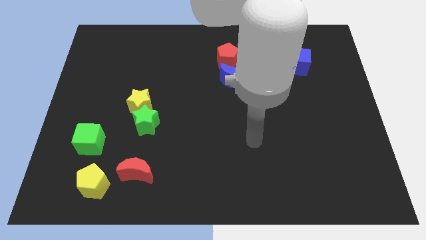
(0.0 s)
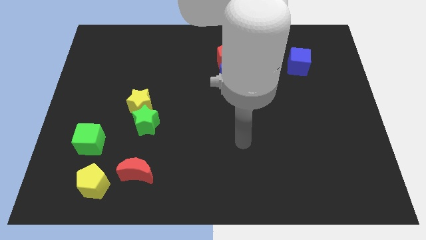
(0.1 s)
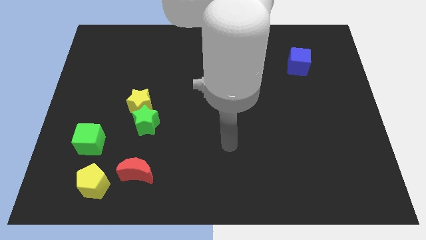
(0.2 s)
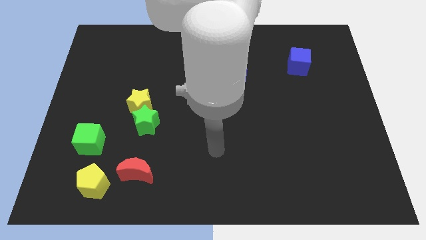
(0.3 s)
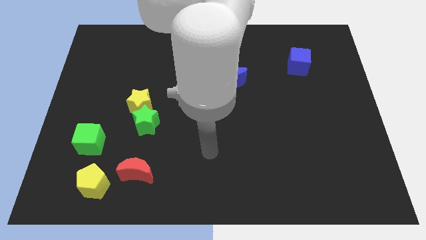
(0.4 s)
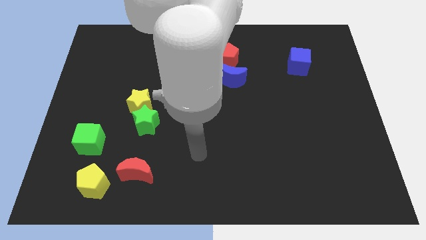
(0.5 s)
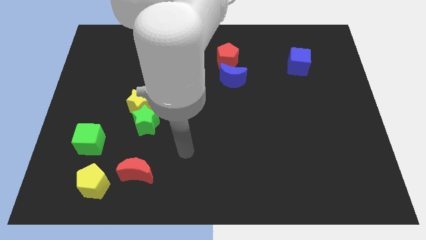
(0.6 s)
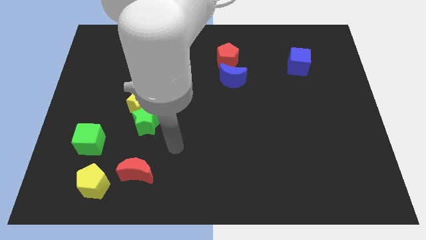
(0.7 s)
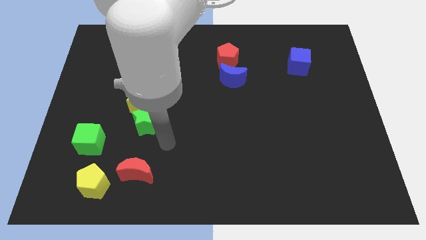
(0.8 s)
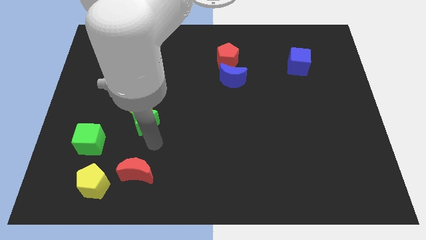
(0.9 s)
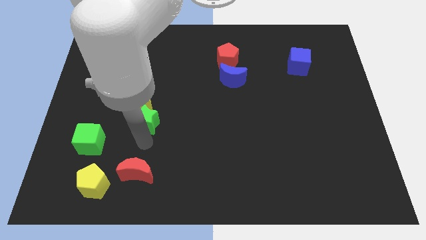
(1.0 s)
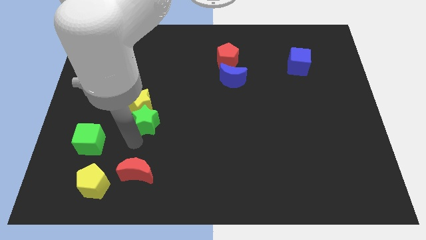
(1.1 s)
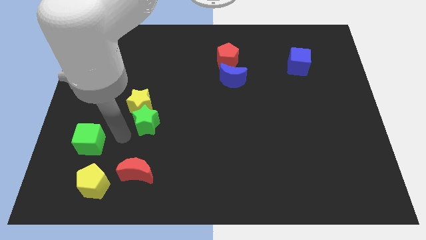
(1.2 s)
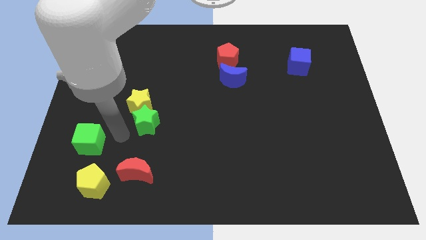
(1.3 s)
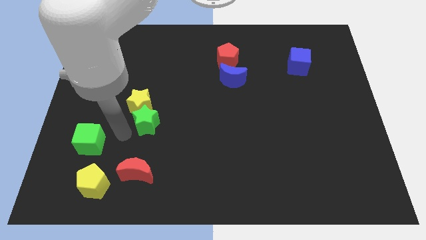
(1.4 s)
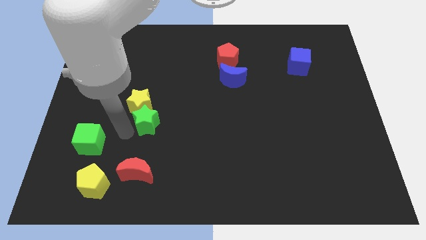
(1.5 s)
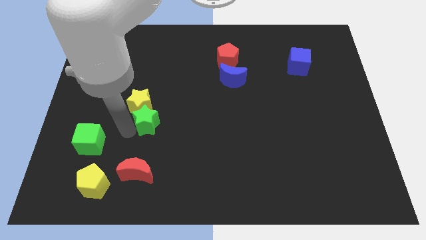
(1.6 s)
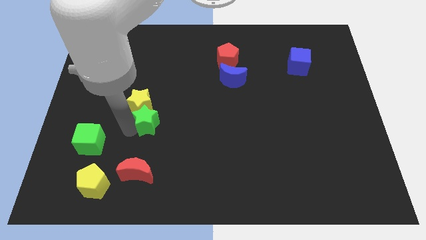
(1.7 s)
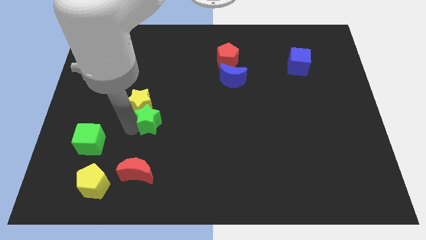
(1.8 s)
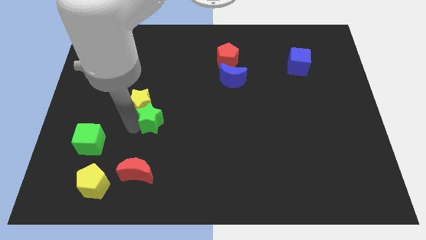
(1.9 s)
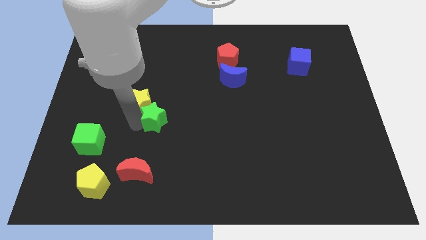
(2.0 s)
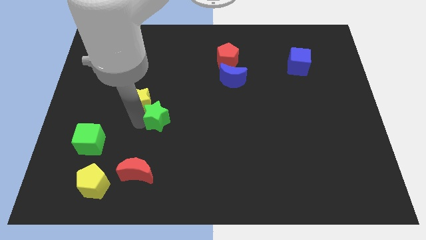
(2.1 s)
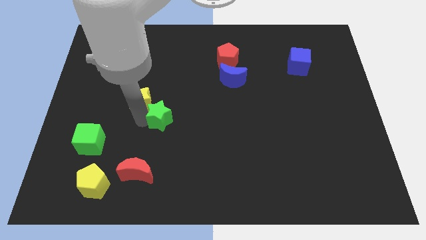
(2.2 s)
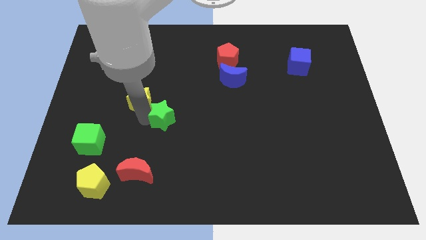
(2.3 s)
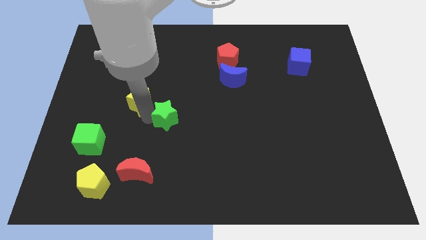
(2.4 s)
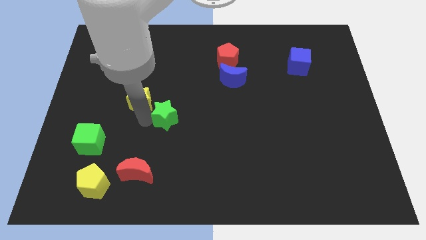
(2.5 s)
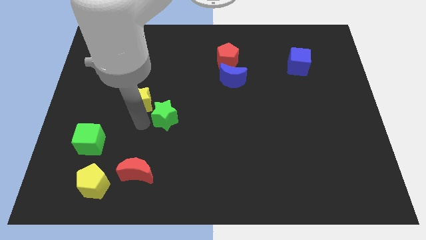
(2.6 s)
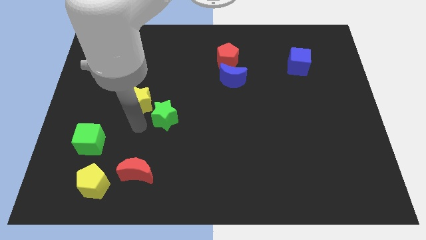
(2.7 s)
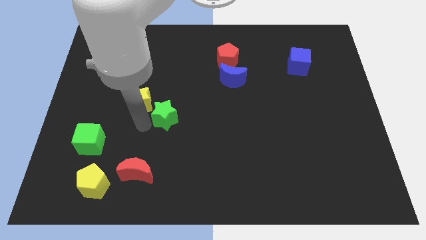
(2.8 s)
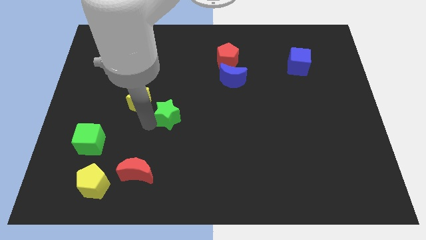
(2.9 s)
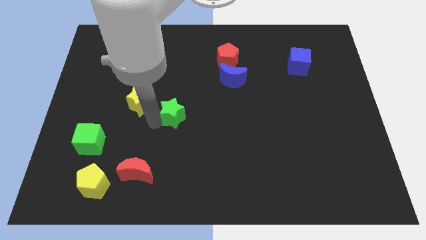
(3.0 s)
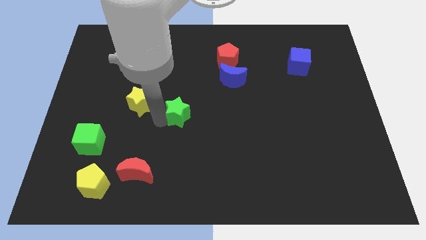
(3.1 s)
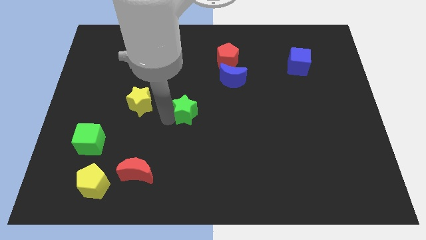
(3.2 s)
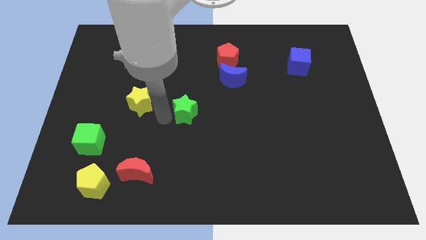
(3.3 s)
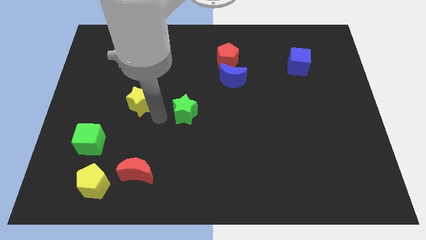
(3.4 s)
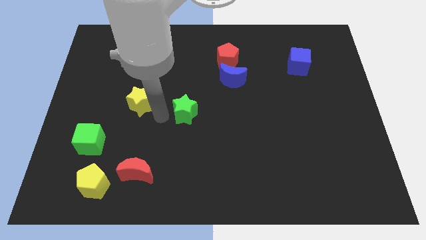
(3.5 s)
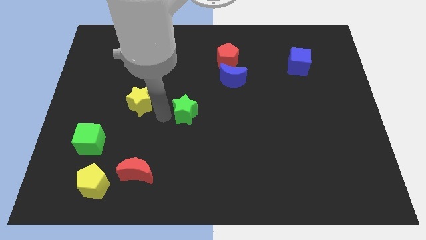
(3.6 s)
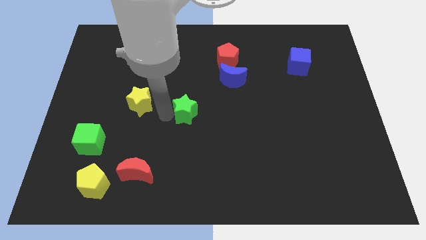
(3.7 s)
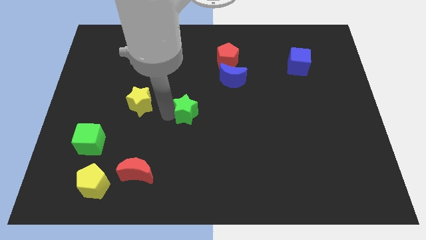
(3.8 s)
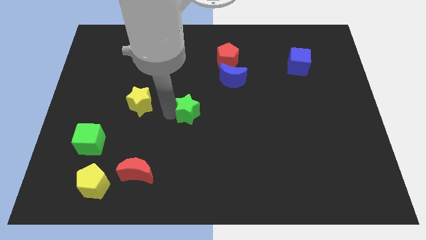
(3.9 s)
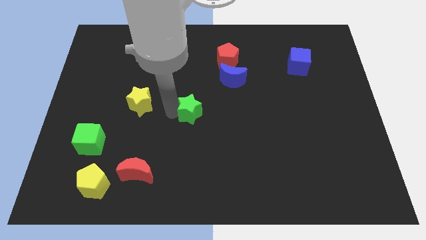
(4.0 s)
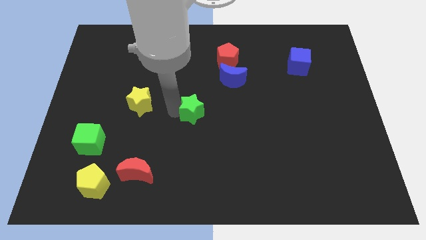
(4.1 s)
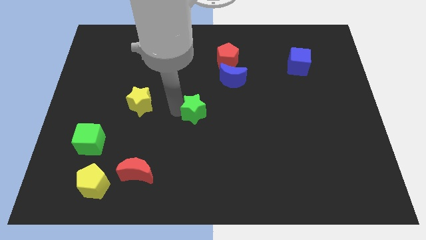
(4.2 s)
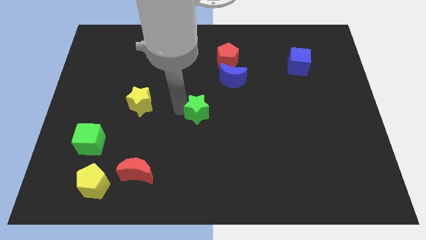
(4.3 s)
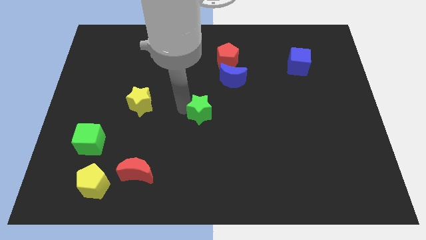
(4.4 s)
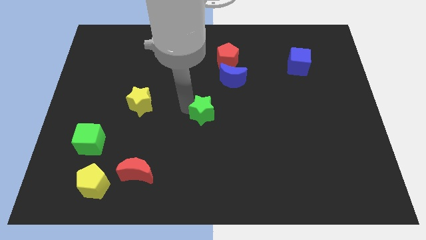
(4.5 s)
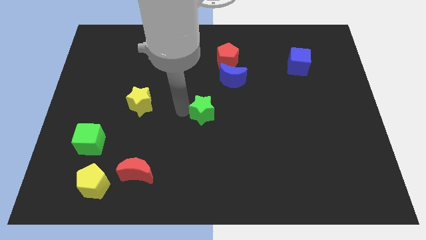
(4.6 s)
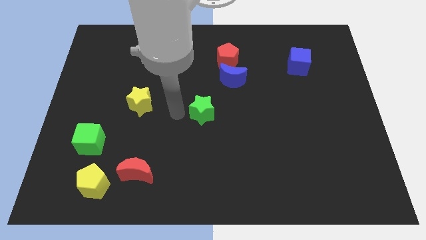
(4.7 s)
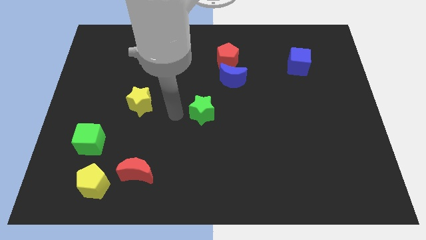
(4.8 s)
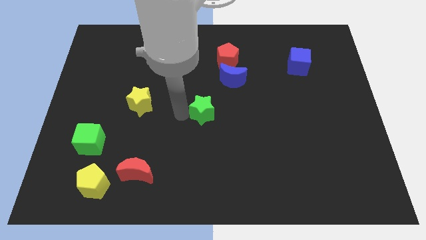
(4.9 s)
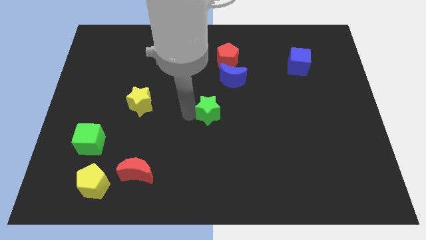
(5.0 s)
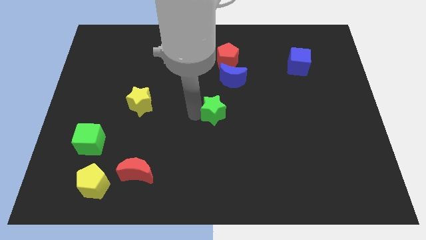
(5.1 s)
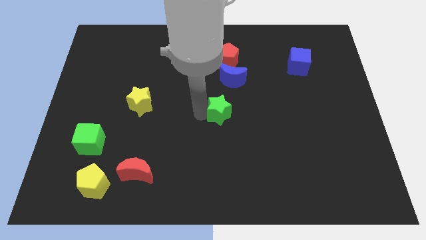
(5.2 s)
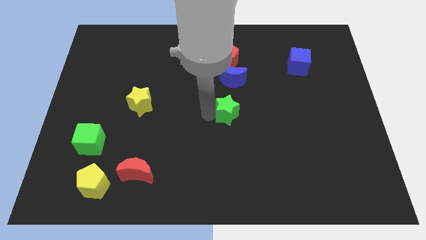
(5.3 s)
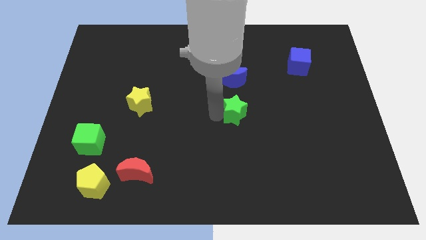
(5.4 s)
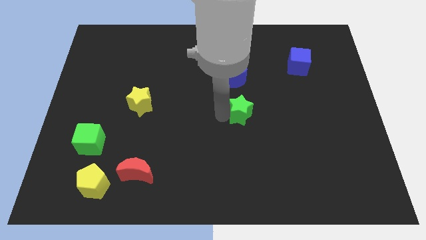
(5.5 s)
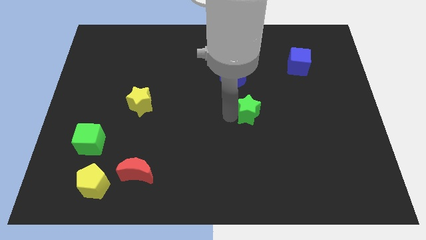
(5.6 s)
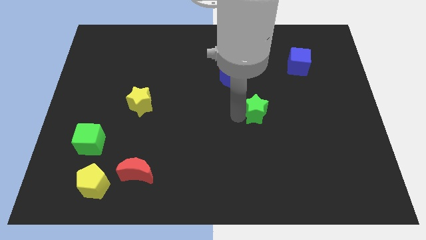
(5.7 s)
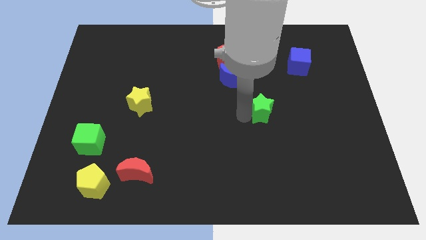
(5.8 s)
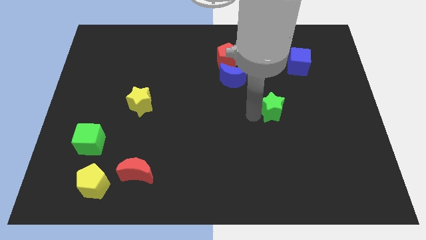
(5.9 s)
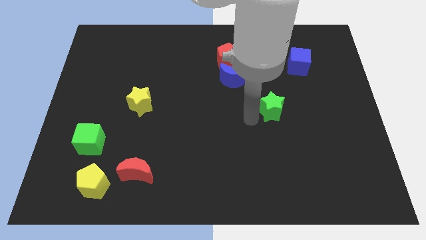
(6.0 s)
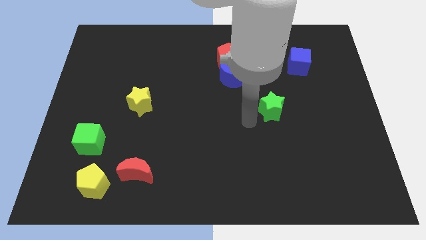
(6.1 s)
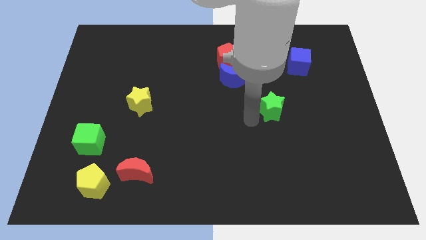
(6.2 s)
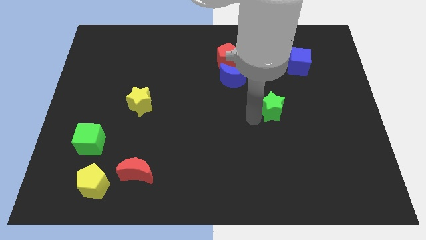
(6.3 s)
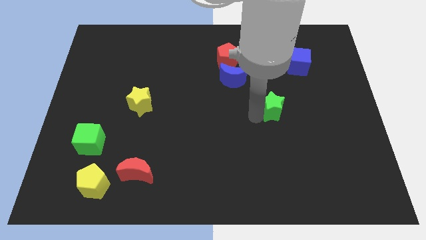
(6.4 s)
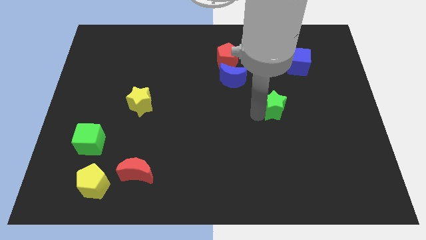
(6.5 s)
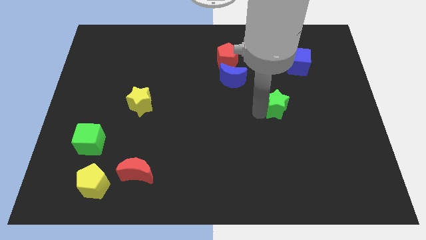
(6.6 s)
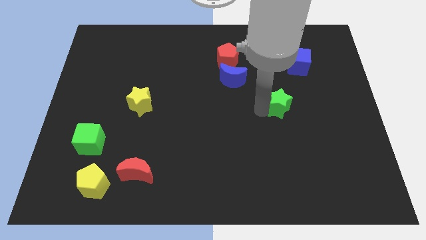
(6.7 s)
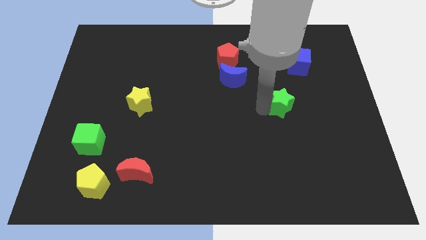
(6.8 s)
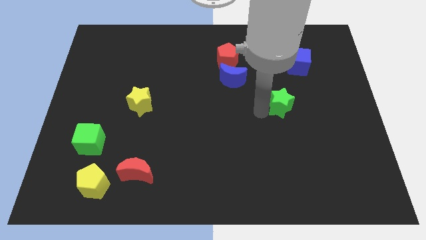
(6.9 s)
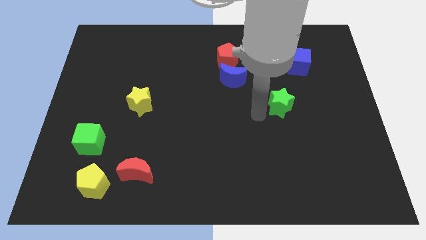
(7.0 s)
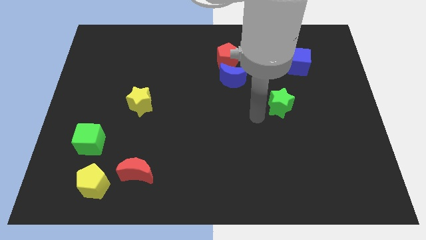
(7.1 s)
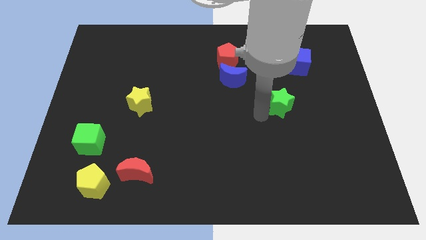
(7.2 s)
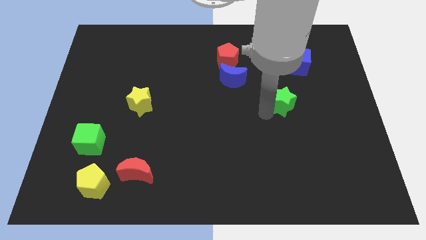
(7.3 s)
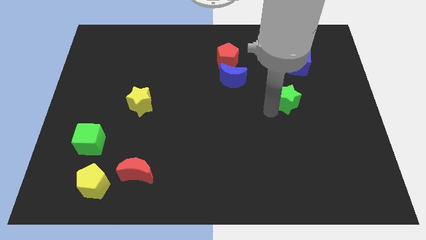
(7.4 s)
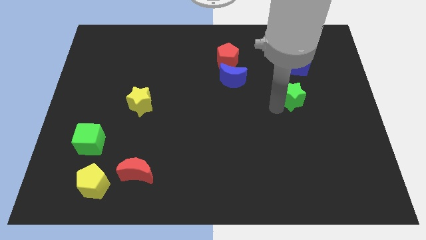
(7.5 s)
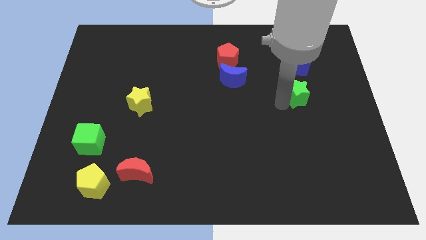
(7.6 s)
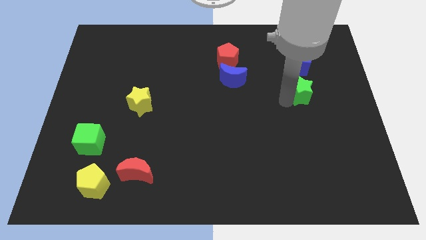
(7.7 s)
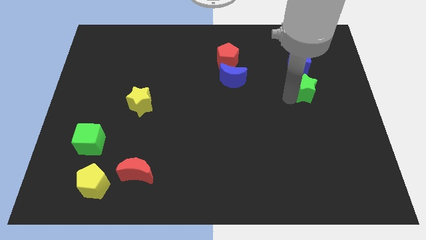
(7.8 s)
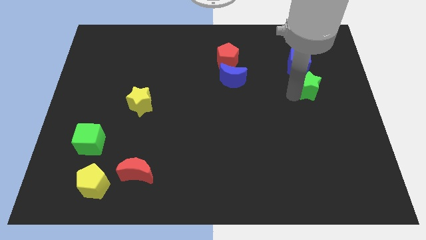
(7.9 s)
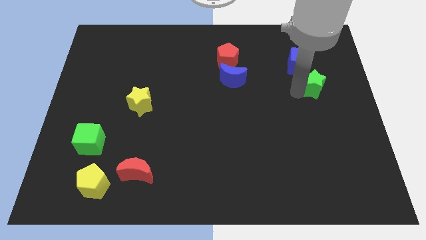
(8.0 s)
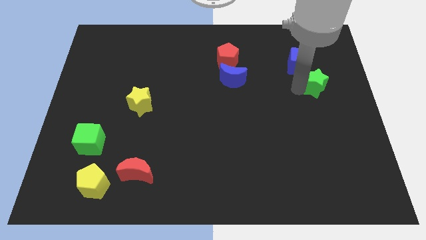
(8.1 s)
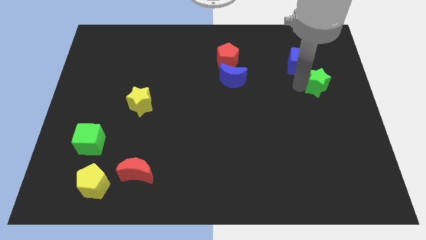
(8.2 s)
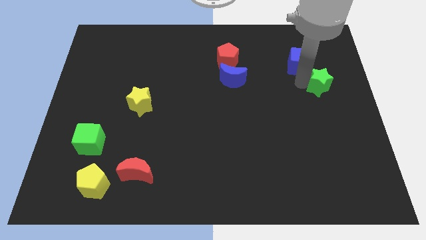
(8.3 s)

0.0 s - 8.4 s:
put the green star to the right side
